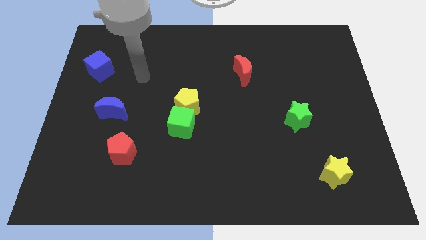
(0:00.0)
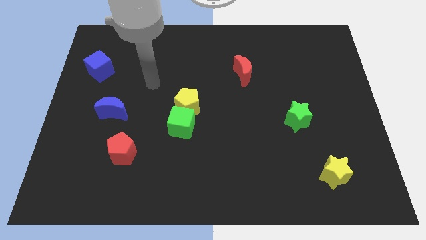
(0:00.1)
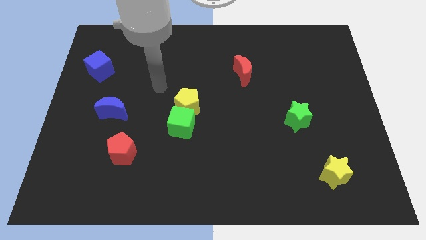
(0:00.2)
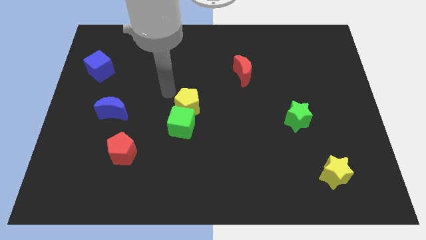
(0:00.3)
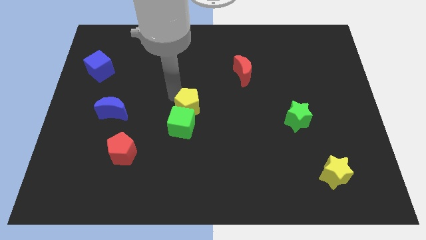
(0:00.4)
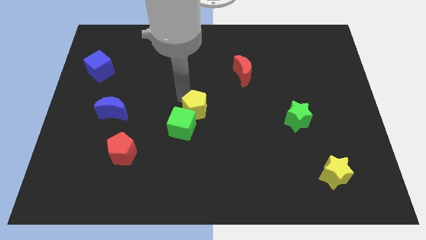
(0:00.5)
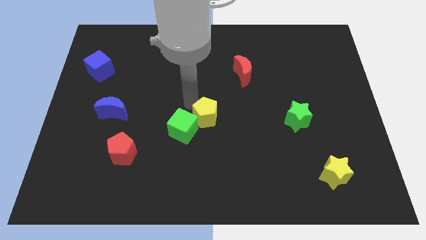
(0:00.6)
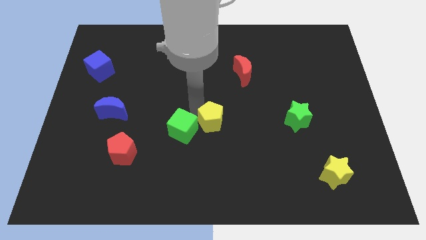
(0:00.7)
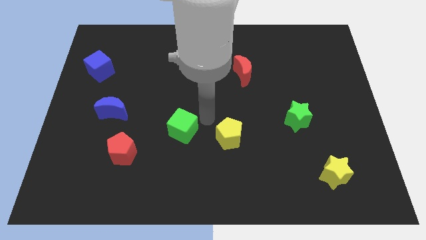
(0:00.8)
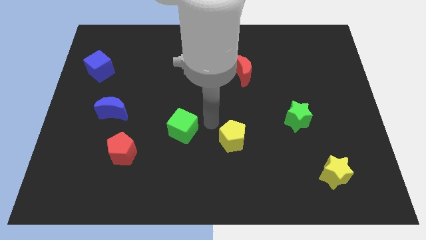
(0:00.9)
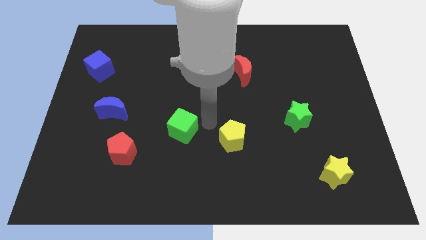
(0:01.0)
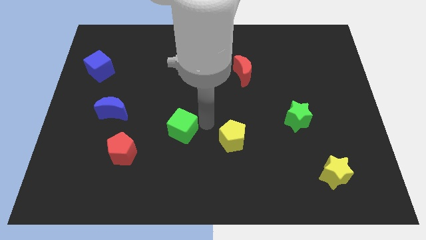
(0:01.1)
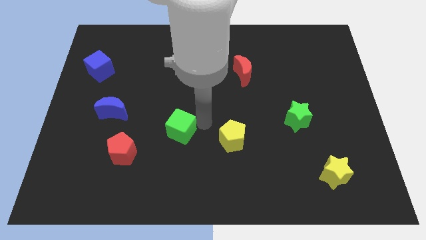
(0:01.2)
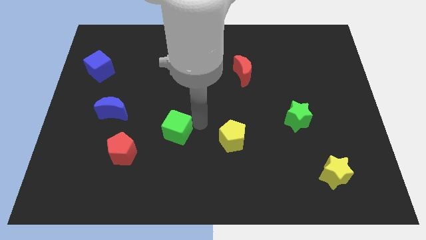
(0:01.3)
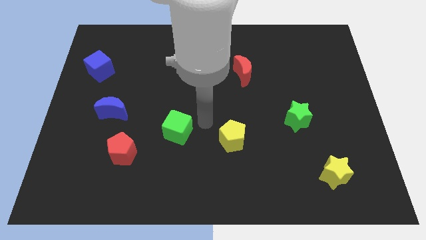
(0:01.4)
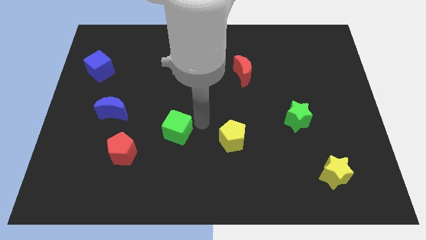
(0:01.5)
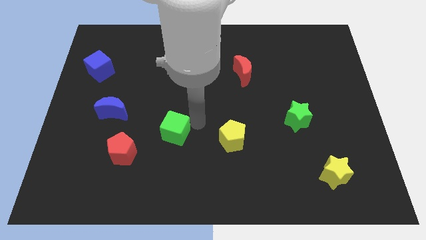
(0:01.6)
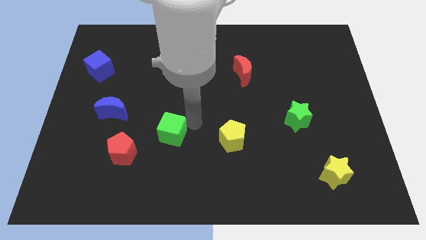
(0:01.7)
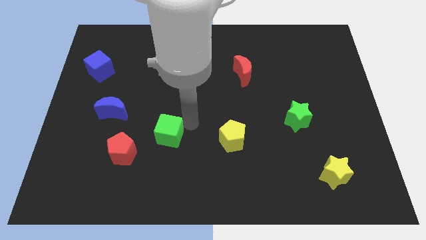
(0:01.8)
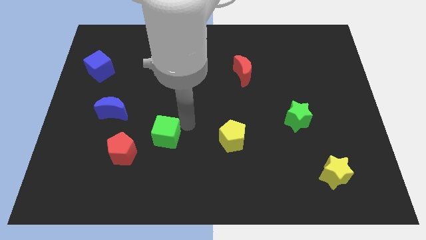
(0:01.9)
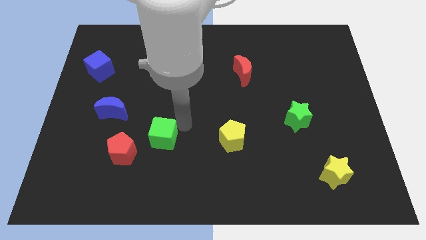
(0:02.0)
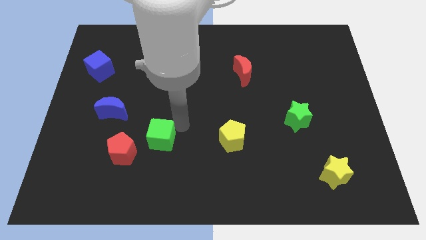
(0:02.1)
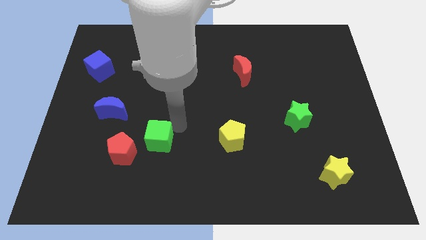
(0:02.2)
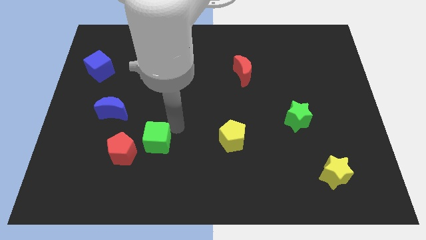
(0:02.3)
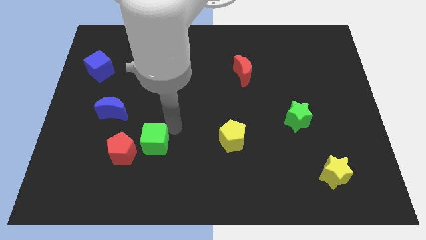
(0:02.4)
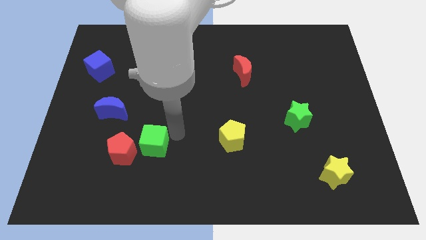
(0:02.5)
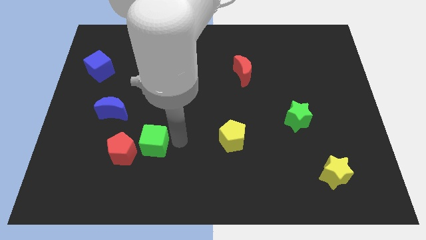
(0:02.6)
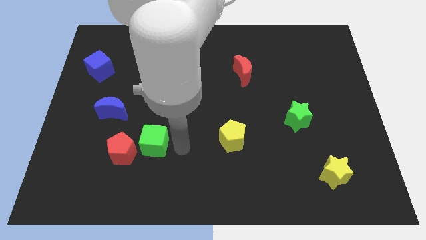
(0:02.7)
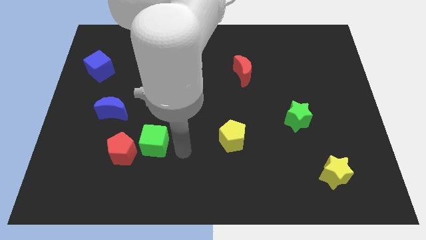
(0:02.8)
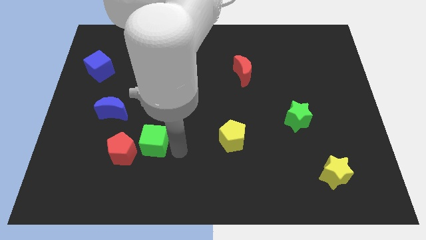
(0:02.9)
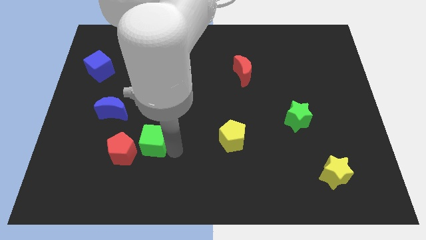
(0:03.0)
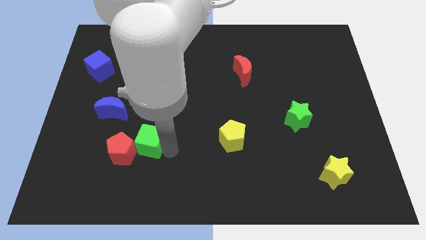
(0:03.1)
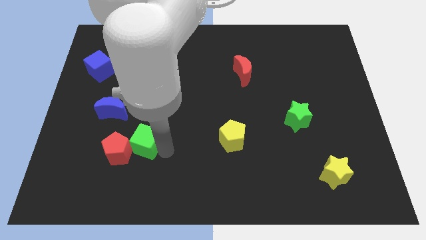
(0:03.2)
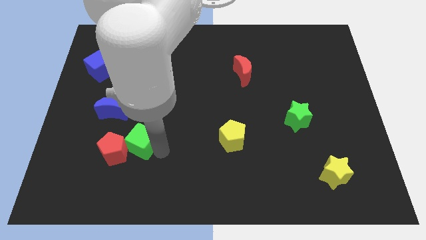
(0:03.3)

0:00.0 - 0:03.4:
slide the green cube a little bit to the left

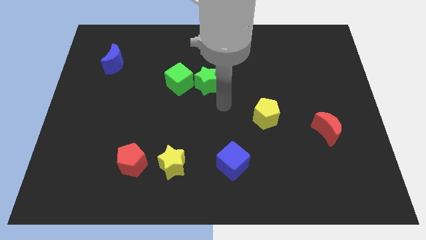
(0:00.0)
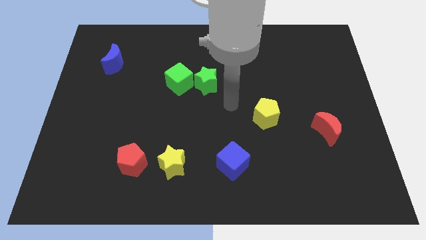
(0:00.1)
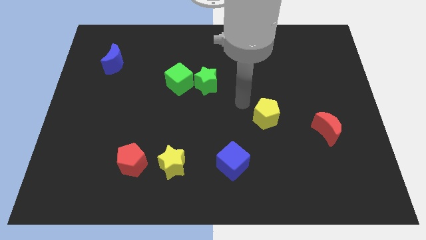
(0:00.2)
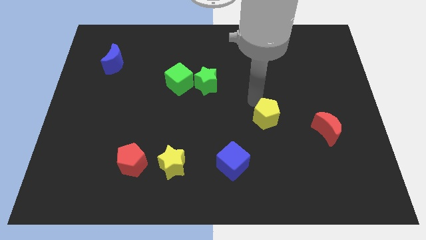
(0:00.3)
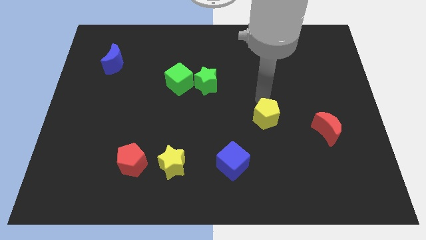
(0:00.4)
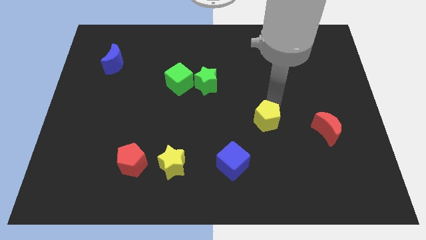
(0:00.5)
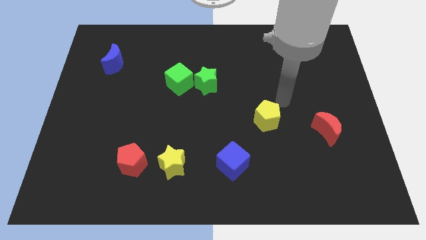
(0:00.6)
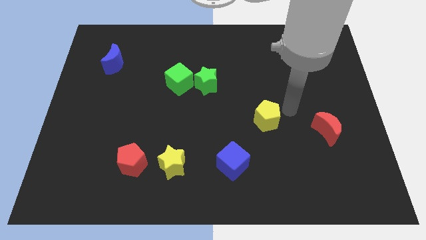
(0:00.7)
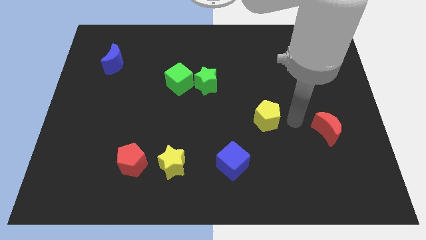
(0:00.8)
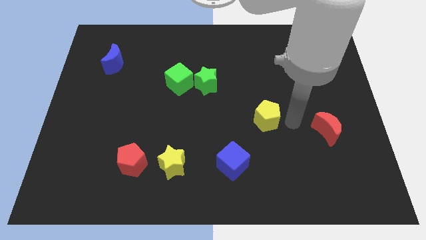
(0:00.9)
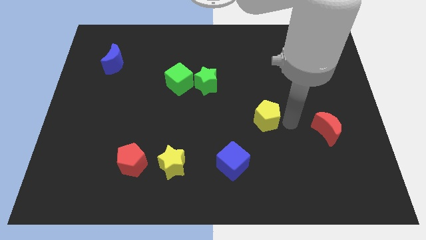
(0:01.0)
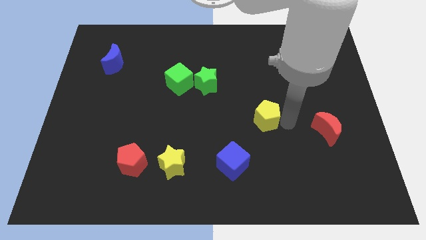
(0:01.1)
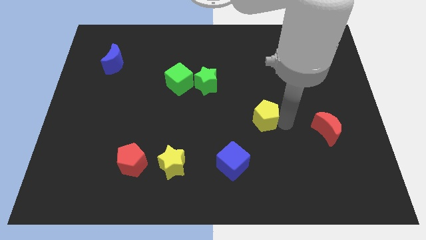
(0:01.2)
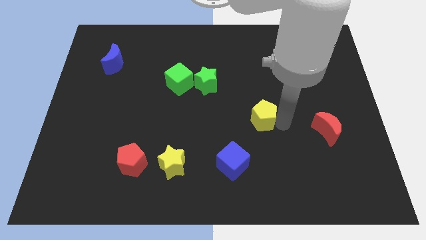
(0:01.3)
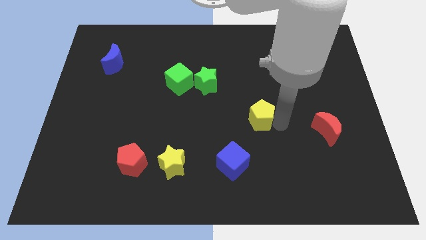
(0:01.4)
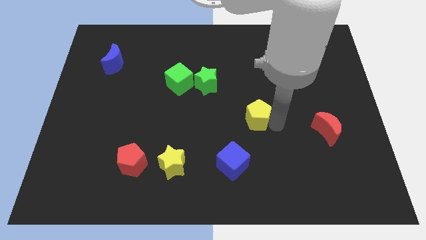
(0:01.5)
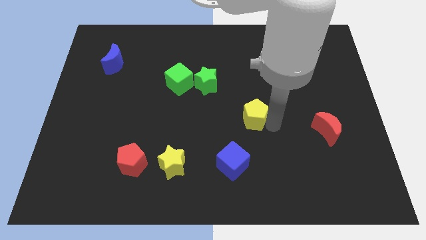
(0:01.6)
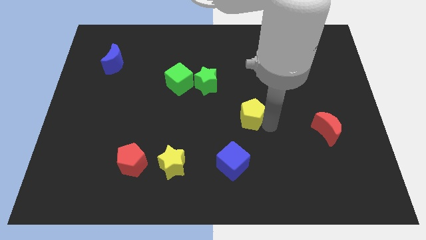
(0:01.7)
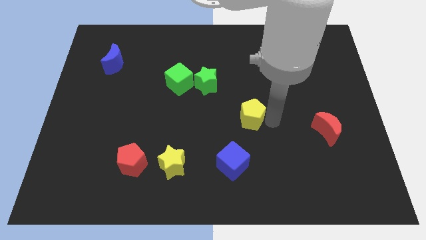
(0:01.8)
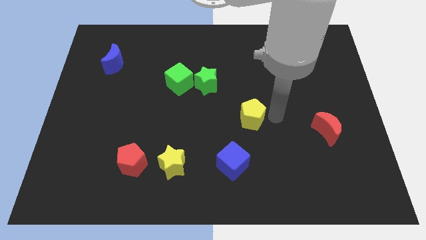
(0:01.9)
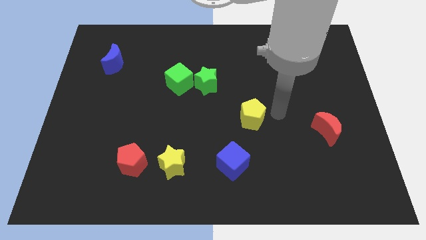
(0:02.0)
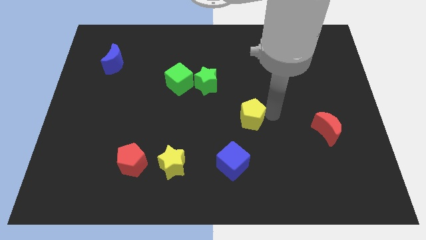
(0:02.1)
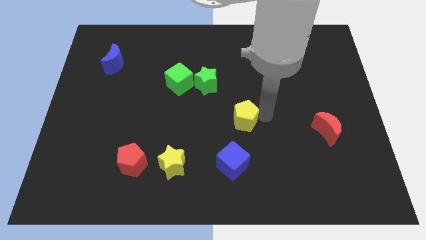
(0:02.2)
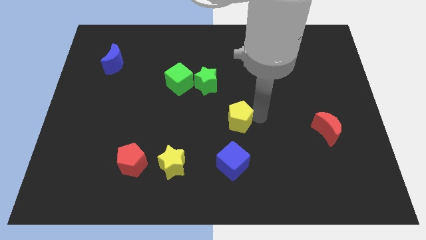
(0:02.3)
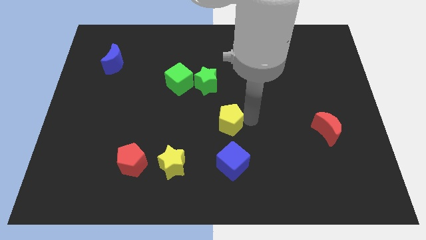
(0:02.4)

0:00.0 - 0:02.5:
move the yellow pentagon to the left somewhat

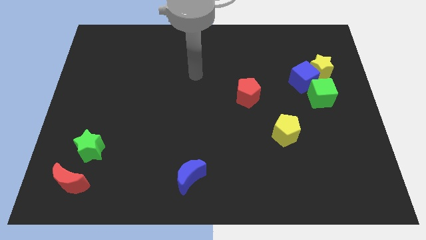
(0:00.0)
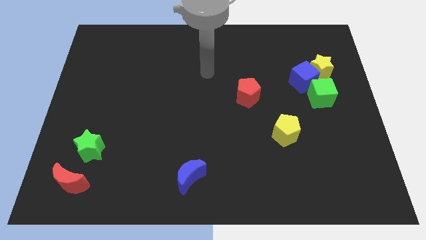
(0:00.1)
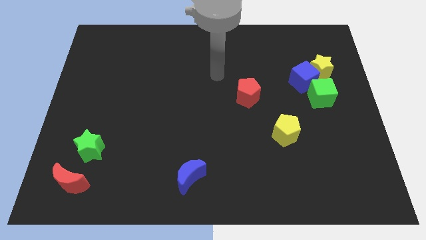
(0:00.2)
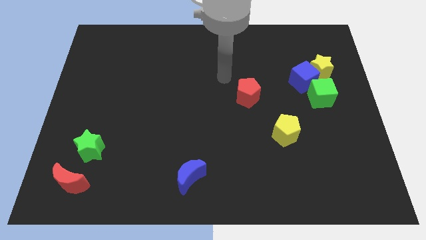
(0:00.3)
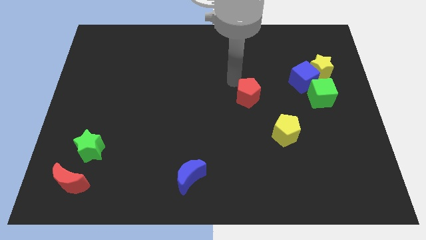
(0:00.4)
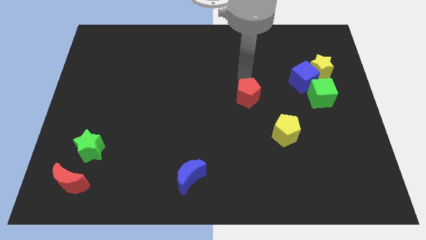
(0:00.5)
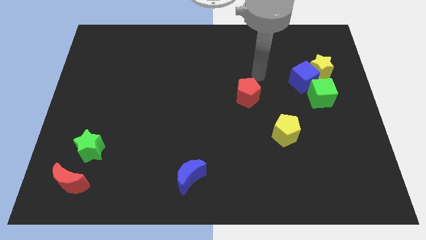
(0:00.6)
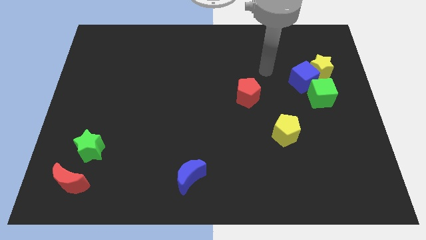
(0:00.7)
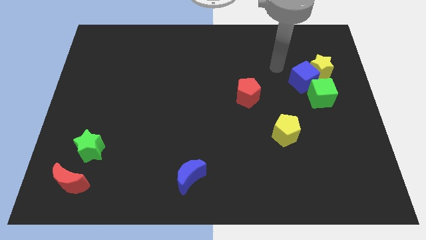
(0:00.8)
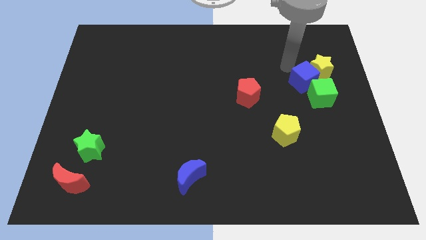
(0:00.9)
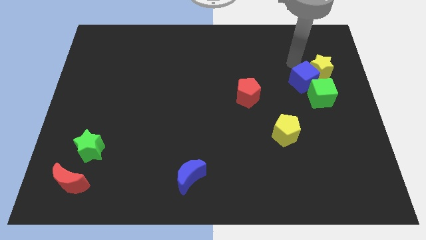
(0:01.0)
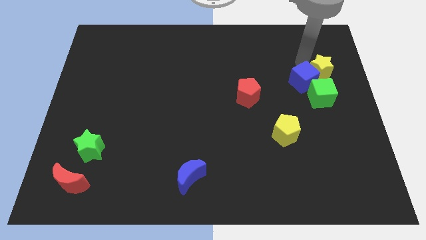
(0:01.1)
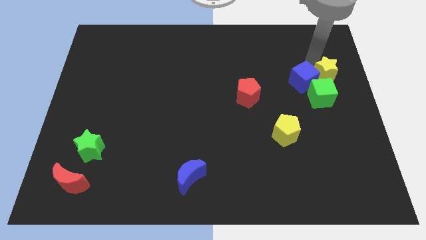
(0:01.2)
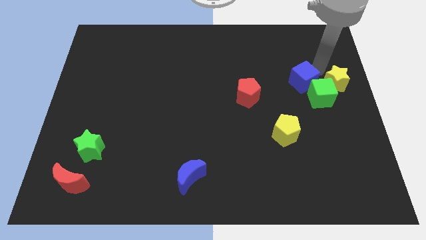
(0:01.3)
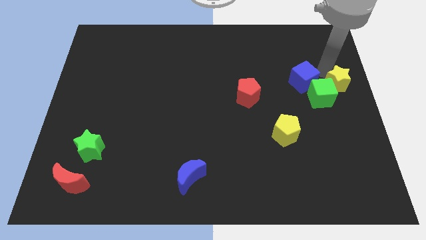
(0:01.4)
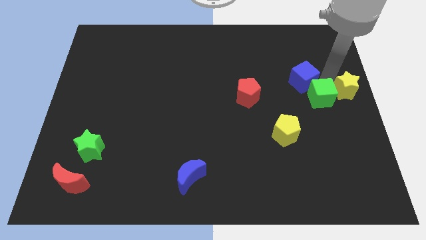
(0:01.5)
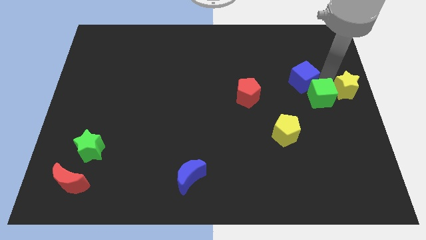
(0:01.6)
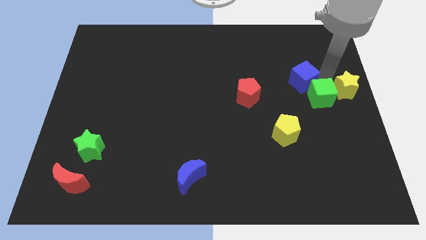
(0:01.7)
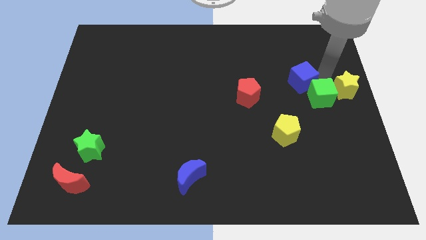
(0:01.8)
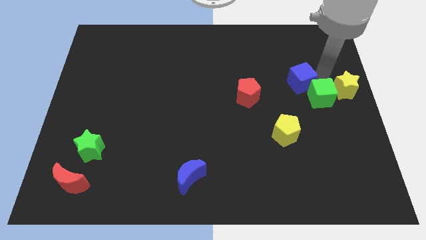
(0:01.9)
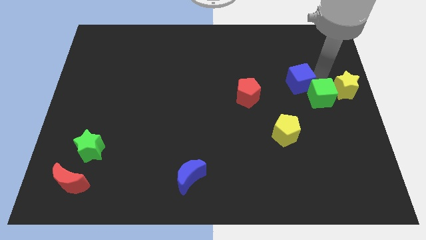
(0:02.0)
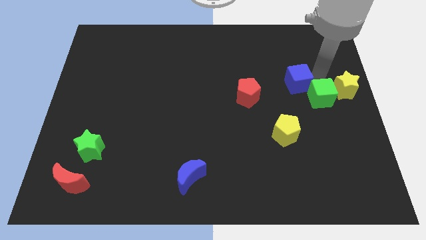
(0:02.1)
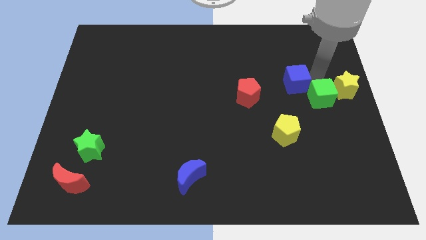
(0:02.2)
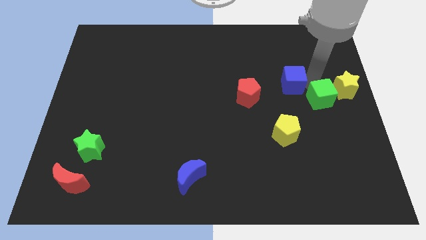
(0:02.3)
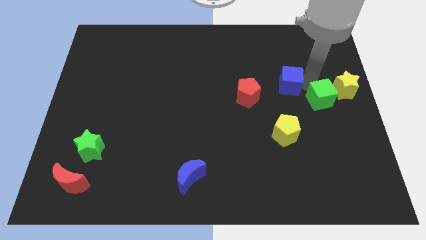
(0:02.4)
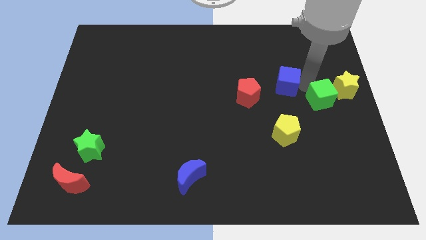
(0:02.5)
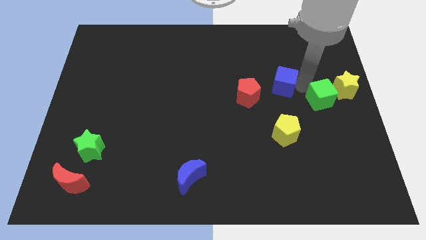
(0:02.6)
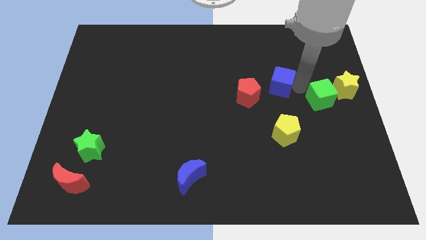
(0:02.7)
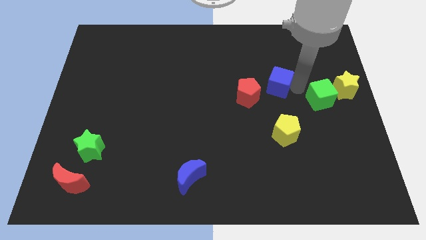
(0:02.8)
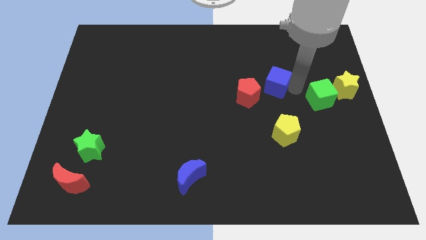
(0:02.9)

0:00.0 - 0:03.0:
push the blue cube left a little
